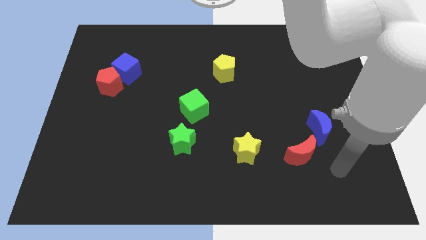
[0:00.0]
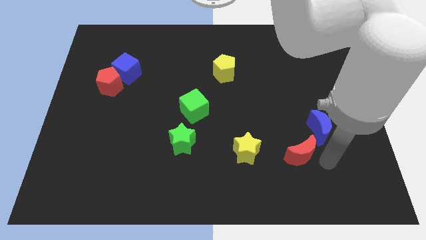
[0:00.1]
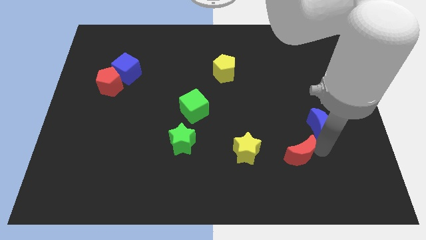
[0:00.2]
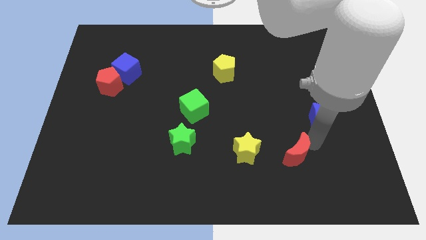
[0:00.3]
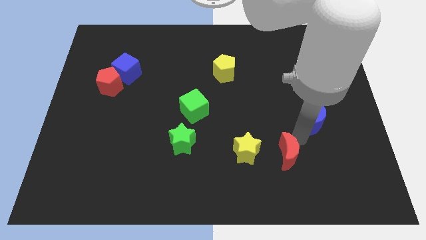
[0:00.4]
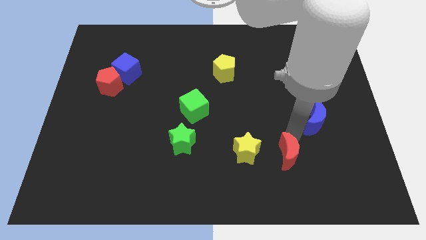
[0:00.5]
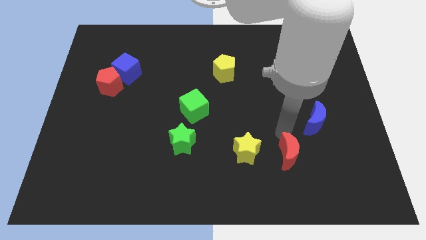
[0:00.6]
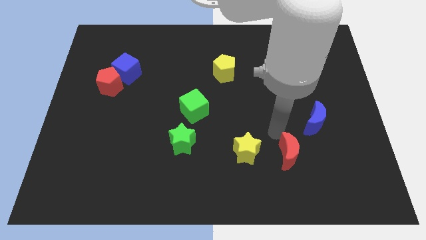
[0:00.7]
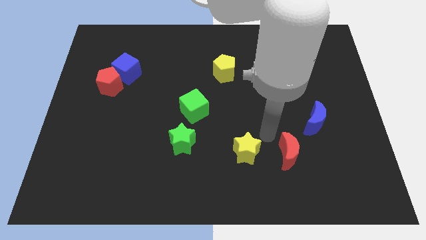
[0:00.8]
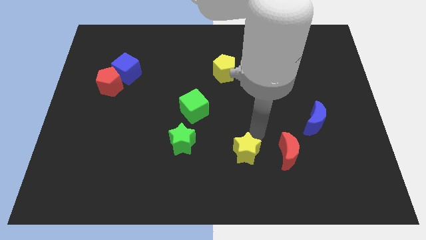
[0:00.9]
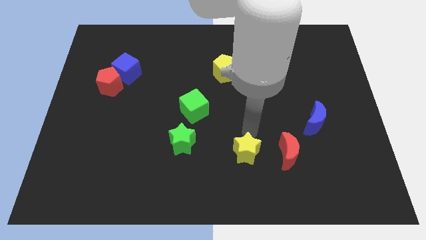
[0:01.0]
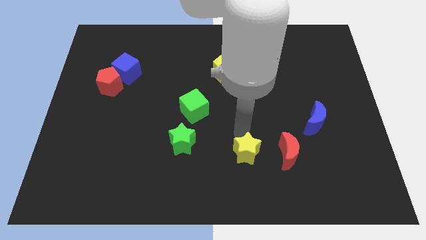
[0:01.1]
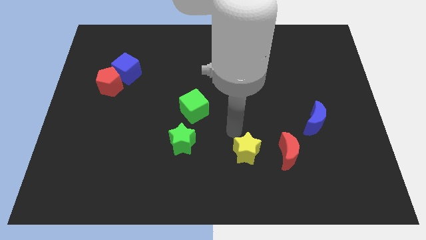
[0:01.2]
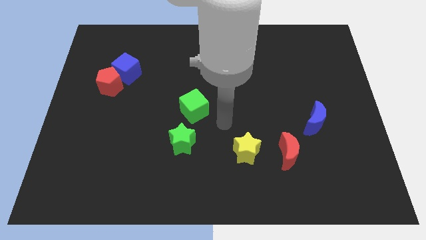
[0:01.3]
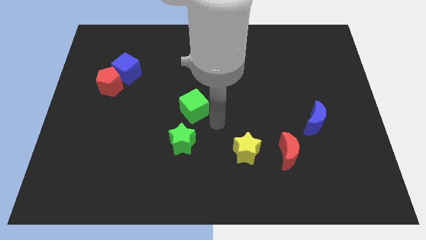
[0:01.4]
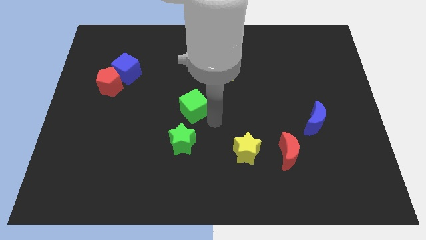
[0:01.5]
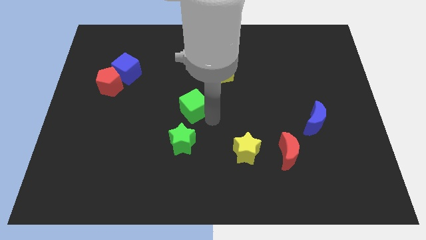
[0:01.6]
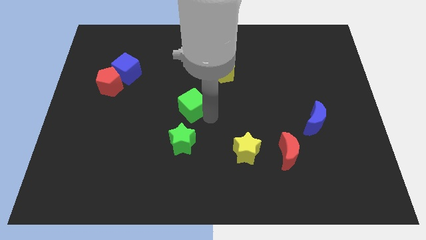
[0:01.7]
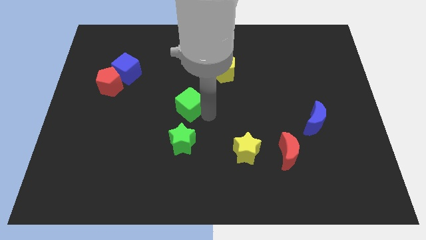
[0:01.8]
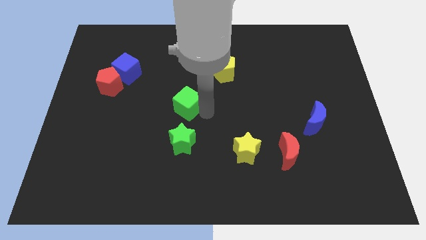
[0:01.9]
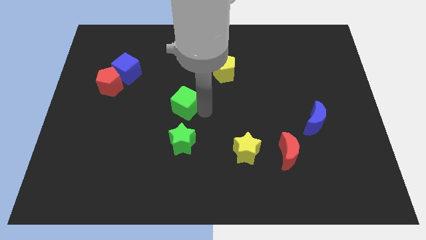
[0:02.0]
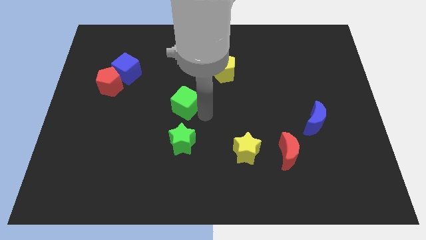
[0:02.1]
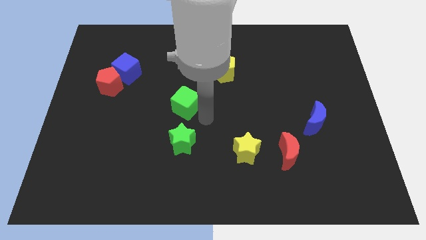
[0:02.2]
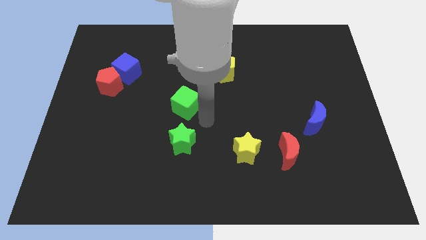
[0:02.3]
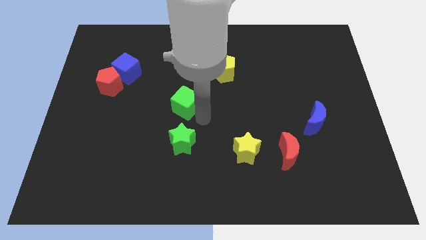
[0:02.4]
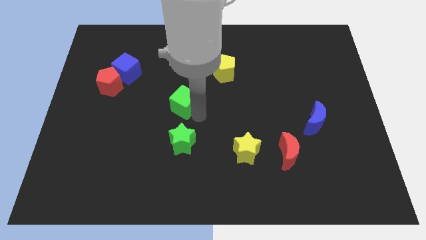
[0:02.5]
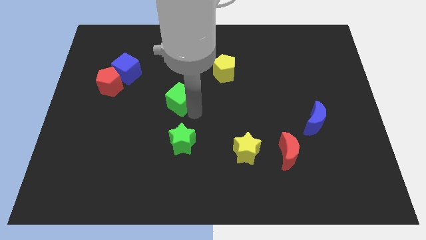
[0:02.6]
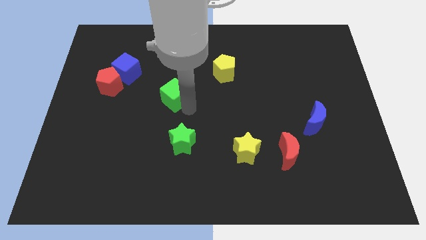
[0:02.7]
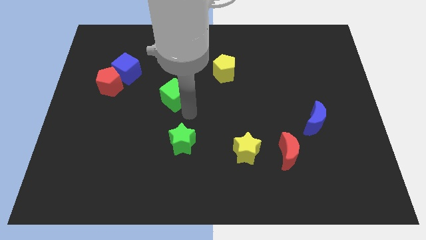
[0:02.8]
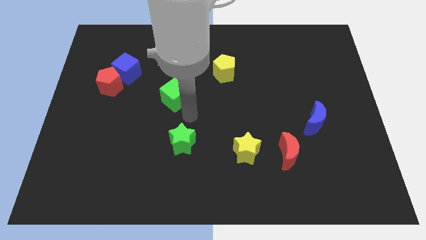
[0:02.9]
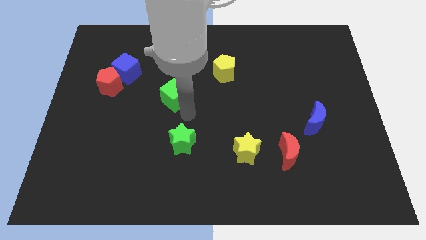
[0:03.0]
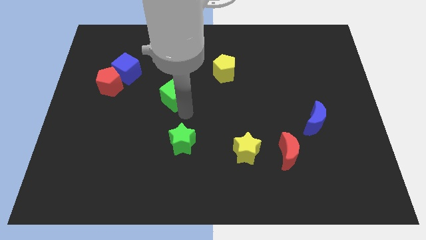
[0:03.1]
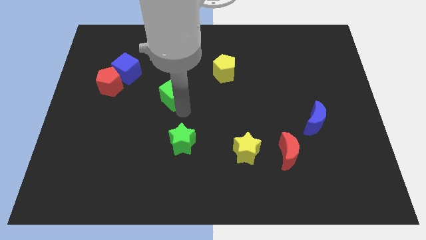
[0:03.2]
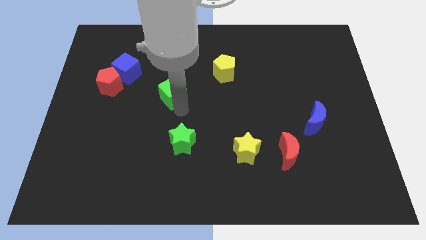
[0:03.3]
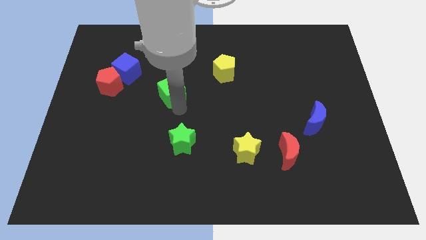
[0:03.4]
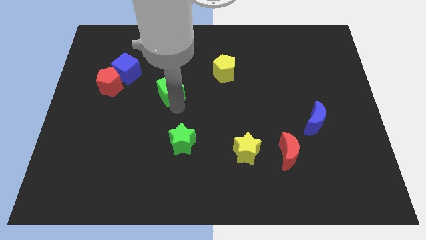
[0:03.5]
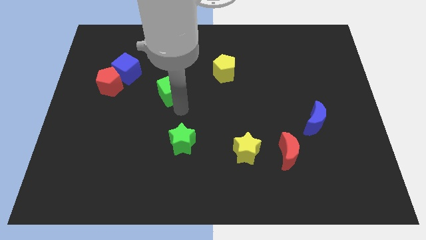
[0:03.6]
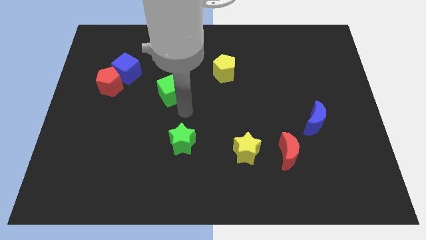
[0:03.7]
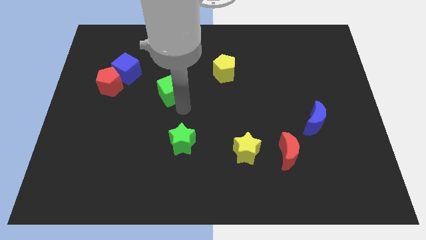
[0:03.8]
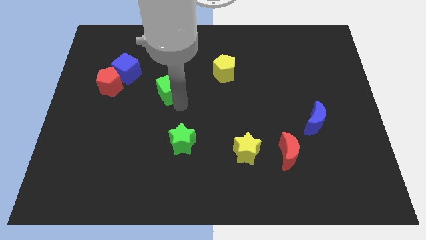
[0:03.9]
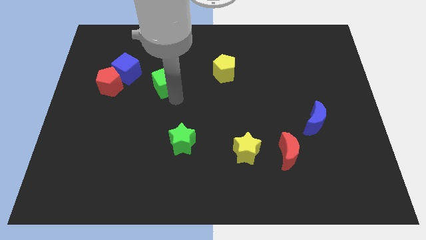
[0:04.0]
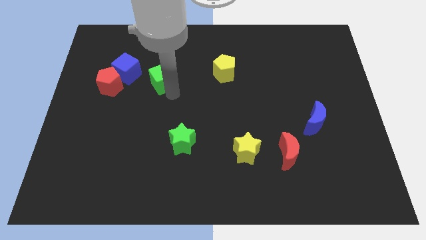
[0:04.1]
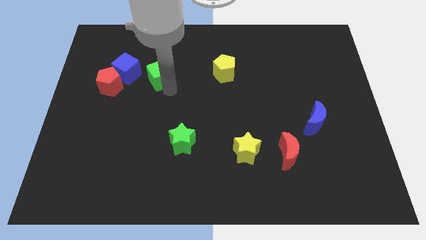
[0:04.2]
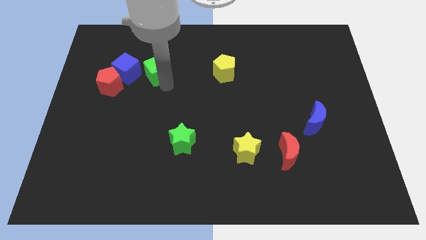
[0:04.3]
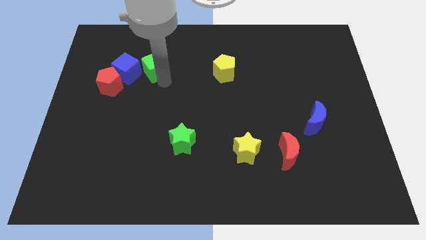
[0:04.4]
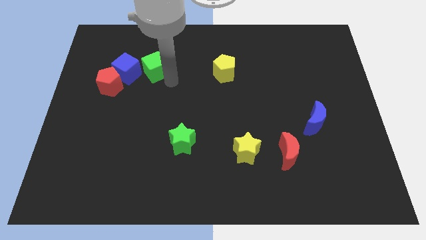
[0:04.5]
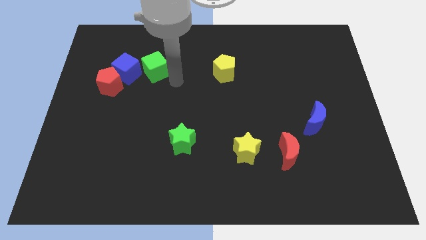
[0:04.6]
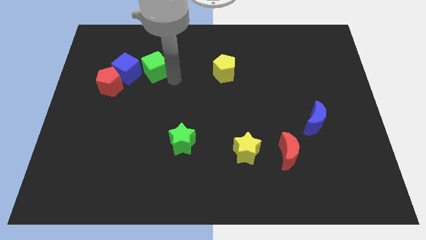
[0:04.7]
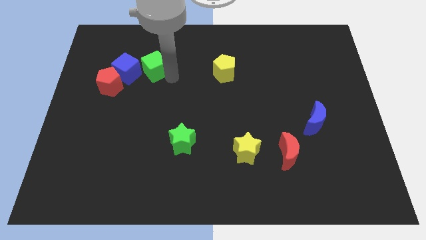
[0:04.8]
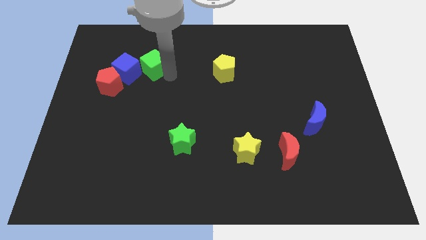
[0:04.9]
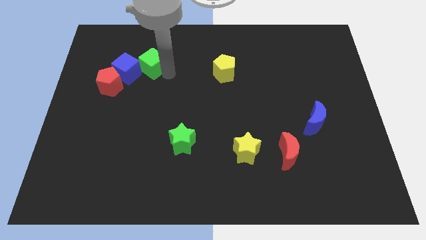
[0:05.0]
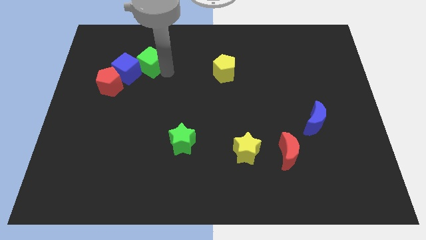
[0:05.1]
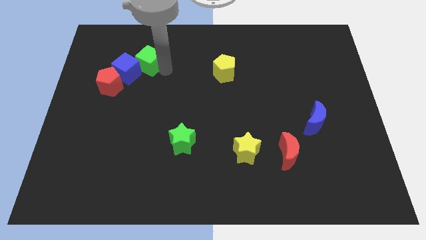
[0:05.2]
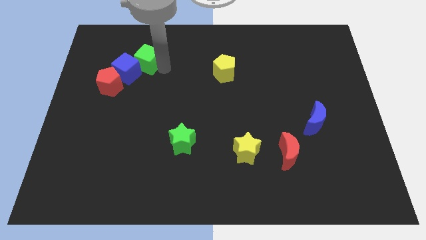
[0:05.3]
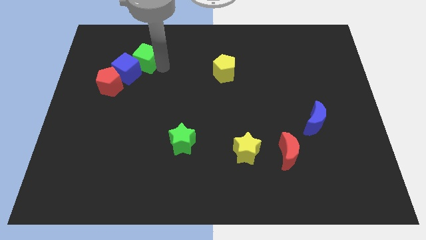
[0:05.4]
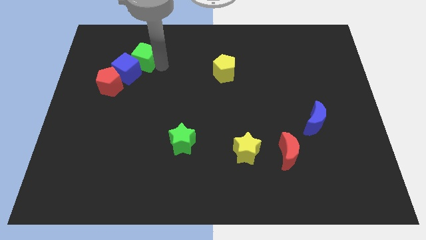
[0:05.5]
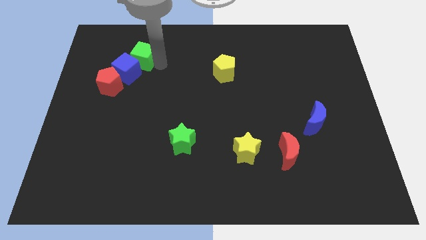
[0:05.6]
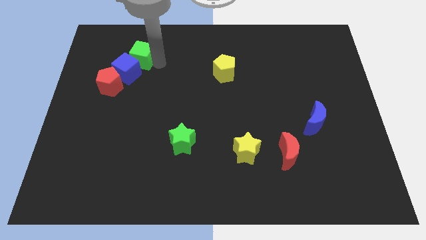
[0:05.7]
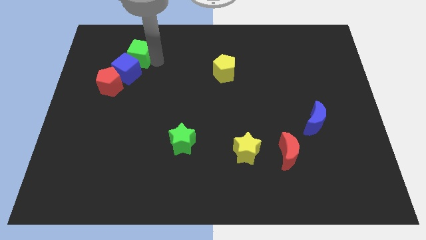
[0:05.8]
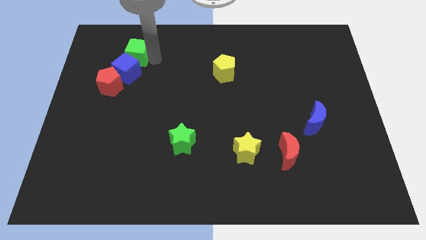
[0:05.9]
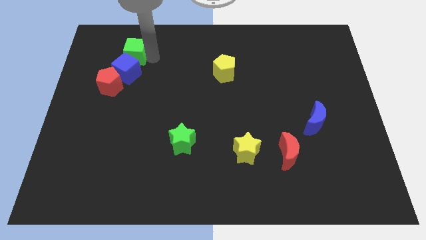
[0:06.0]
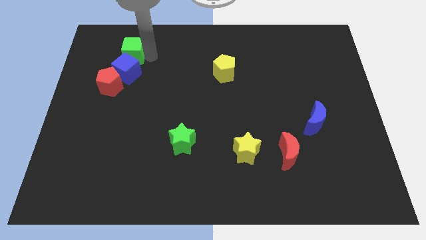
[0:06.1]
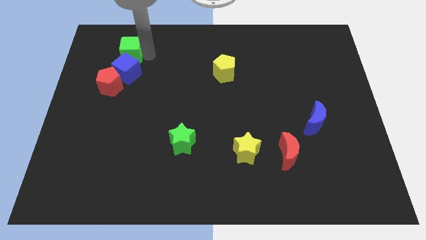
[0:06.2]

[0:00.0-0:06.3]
move the green cube to the top left side of the blue cube

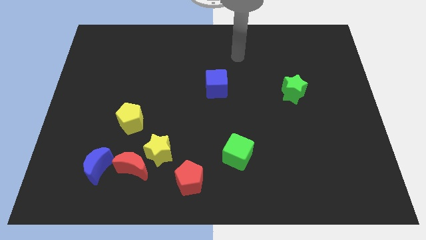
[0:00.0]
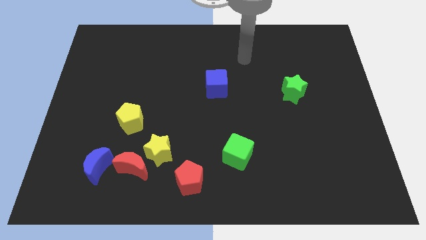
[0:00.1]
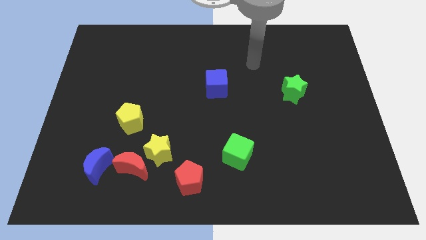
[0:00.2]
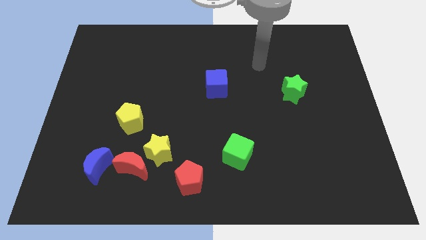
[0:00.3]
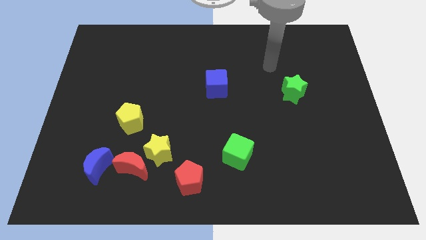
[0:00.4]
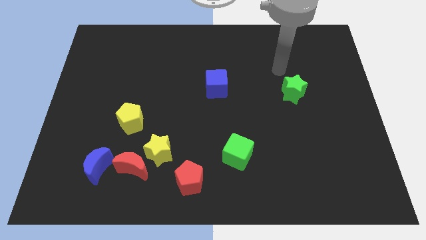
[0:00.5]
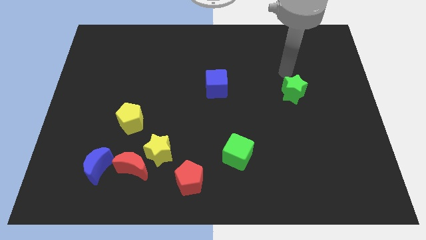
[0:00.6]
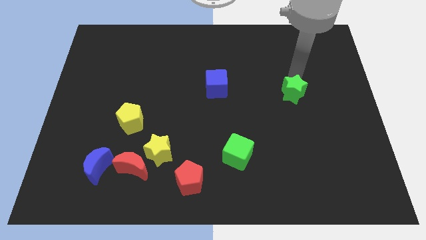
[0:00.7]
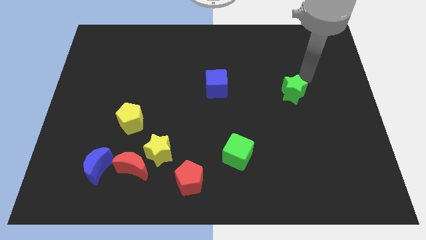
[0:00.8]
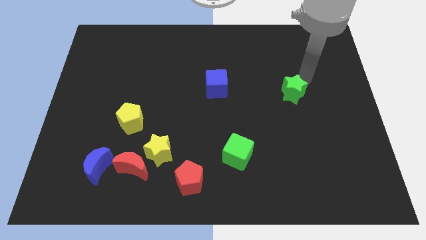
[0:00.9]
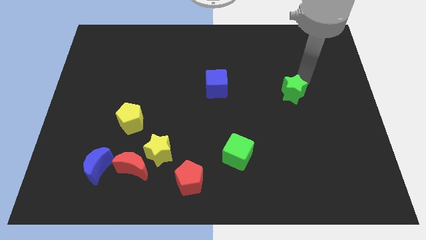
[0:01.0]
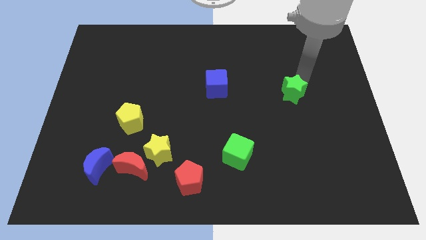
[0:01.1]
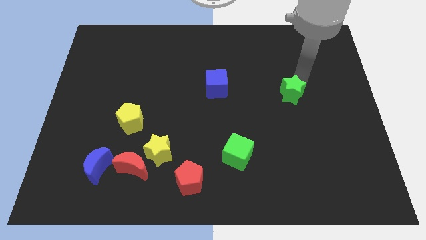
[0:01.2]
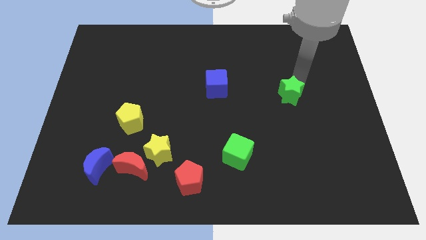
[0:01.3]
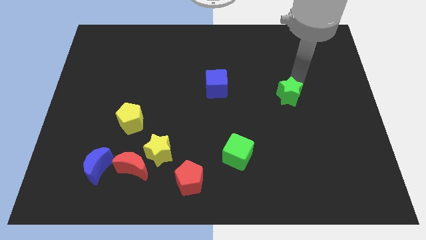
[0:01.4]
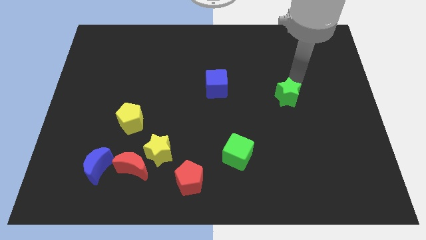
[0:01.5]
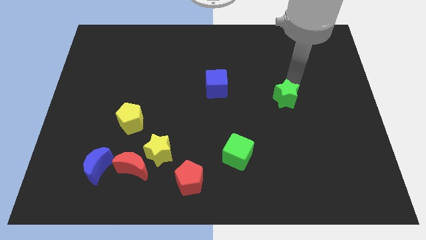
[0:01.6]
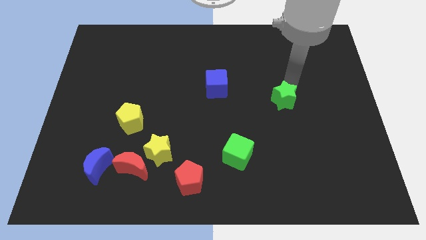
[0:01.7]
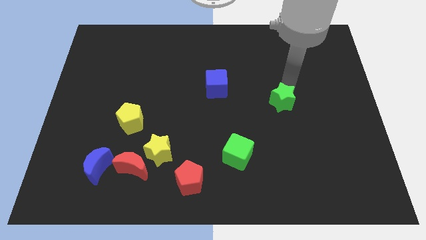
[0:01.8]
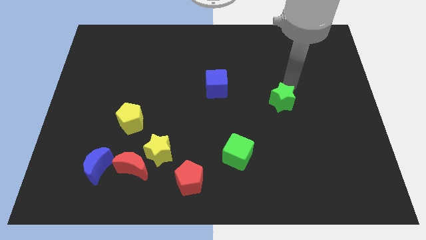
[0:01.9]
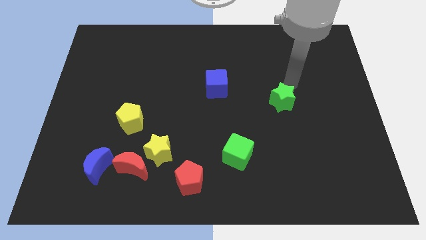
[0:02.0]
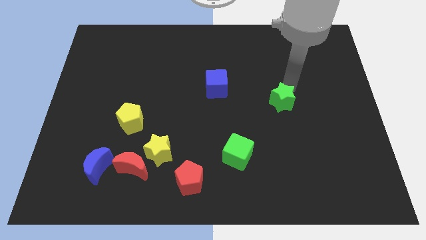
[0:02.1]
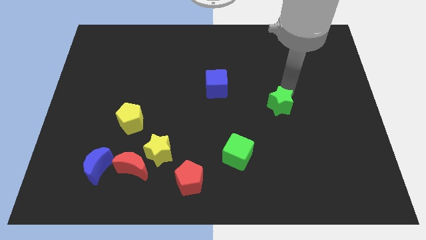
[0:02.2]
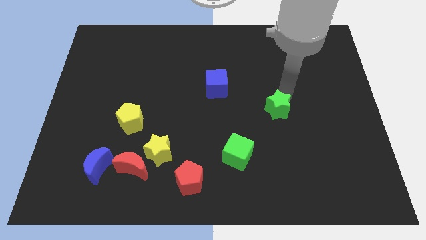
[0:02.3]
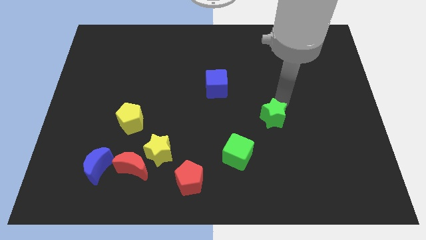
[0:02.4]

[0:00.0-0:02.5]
move the green star diagonally up and to the right of the green cube
